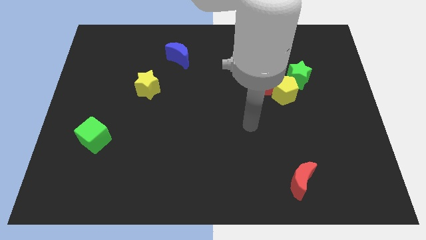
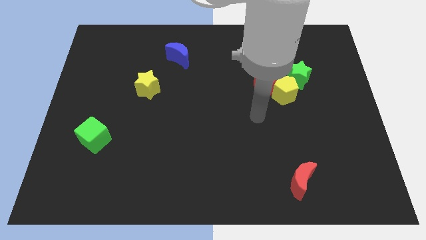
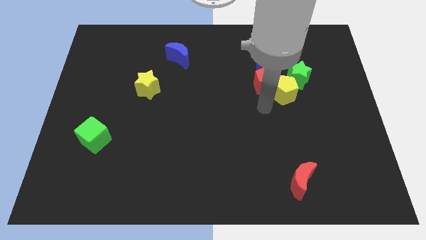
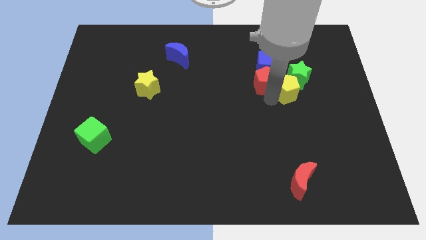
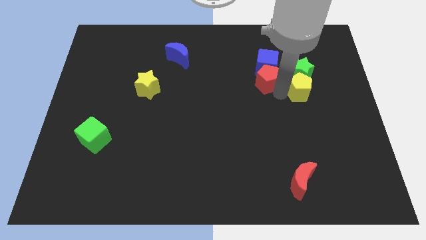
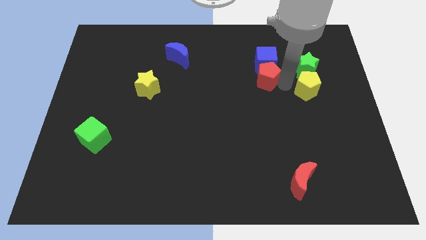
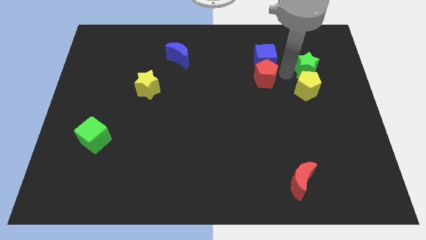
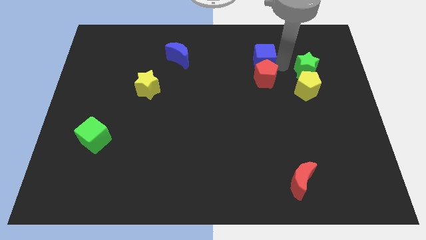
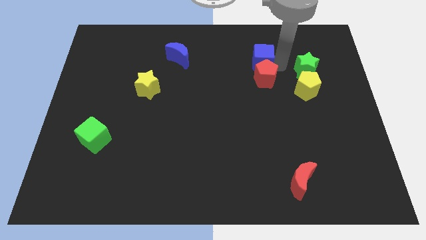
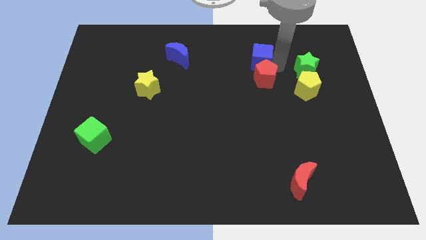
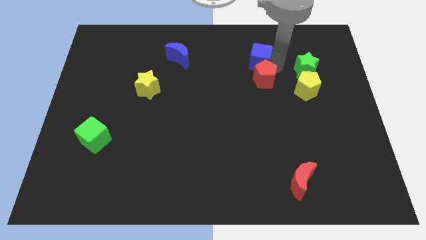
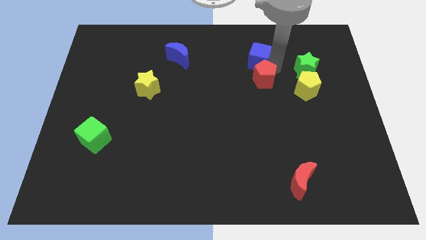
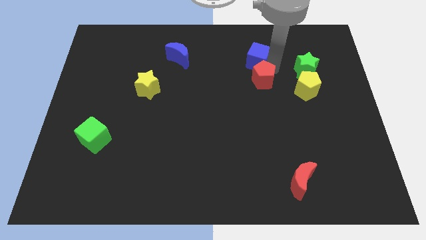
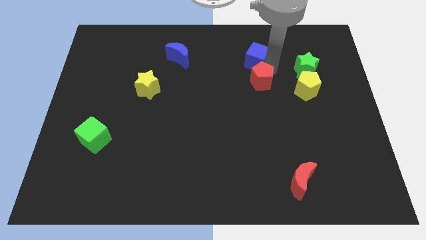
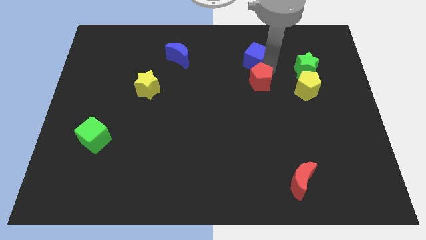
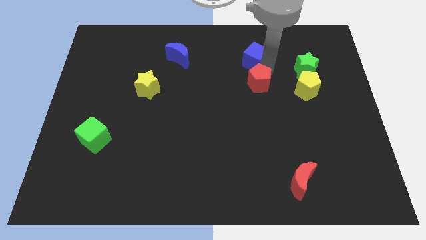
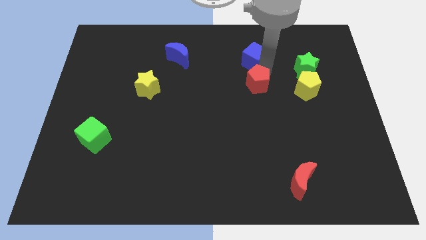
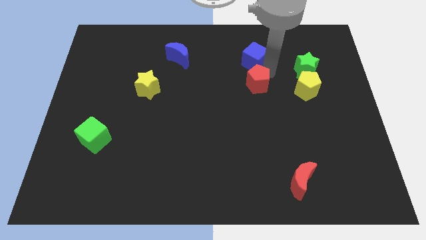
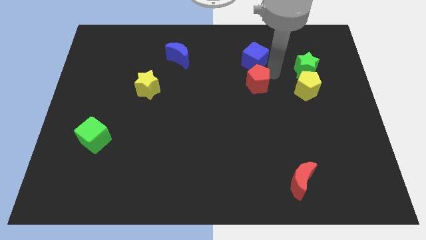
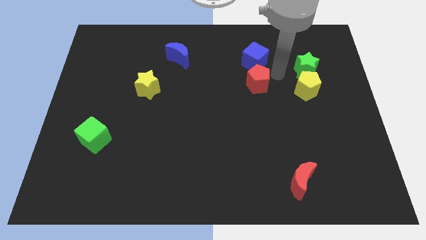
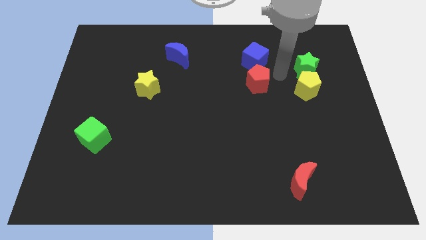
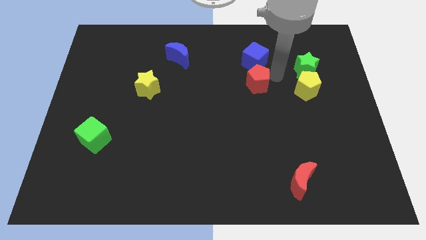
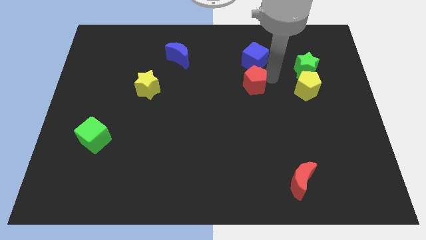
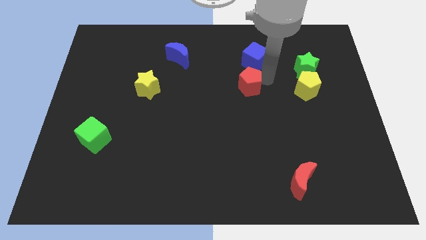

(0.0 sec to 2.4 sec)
separate the red pentagon from the yellow pentagon, blue cube, and green star

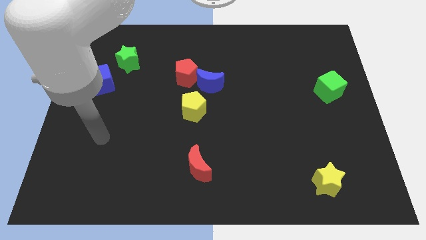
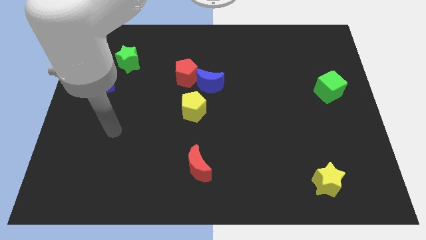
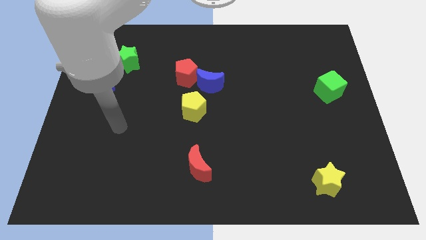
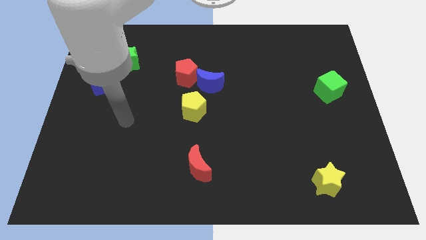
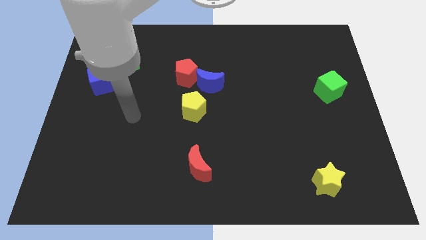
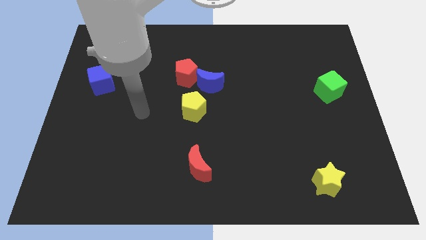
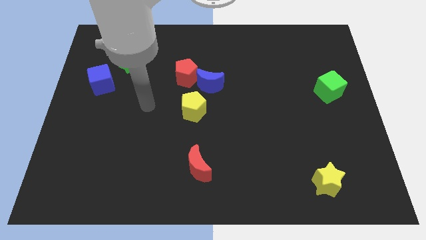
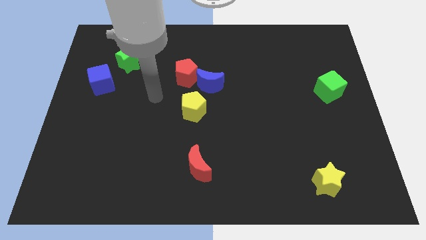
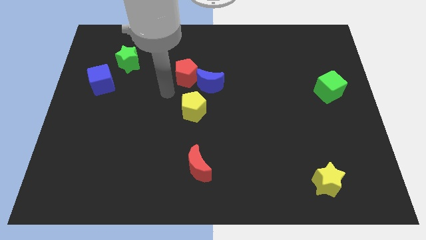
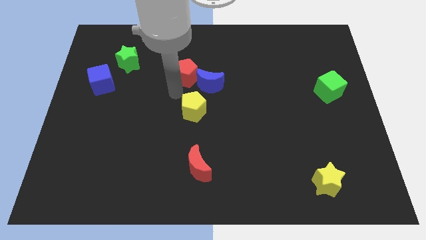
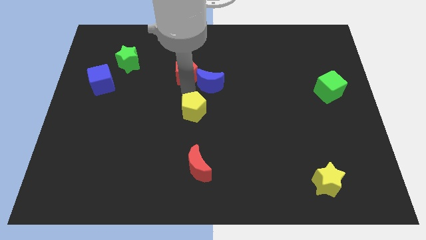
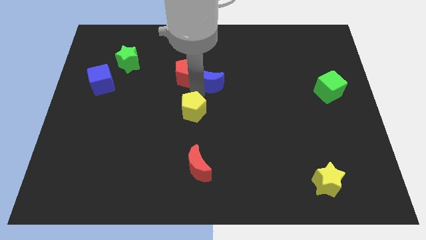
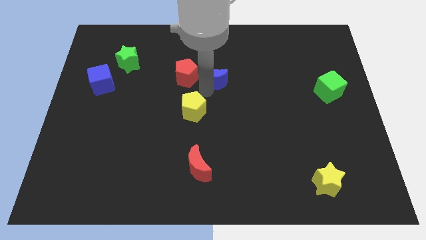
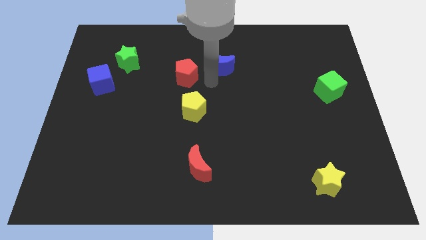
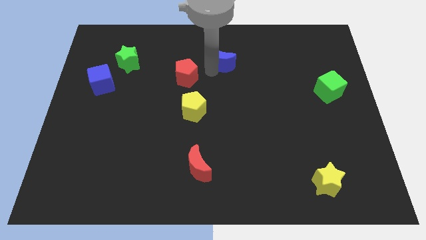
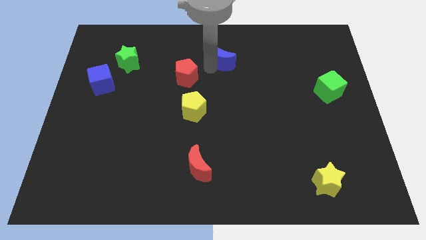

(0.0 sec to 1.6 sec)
move the red pentagon away from the blue moon

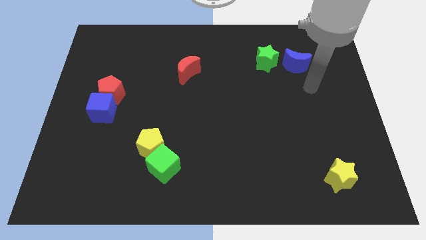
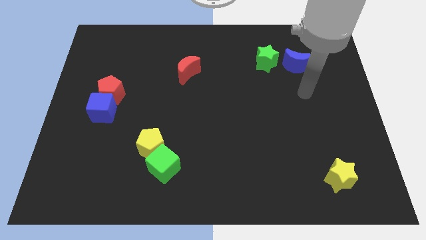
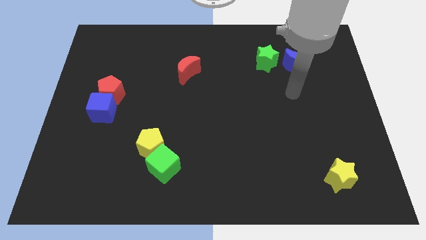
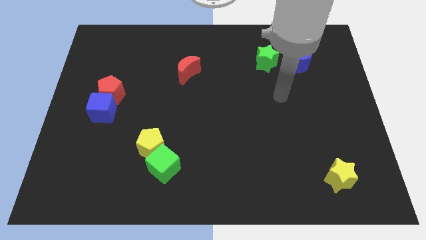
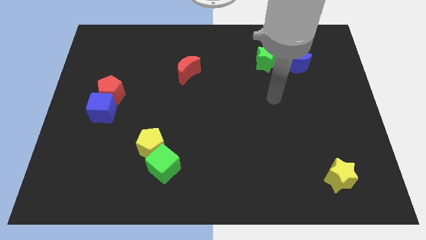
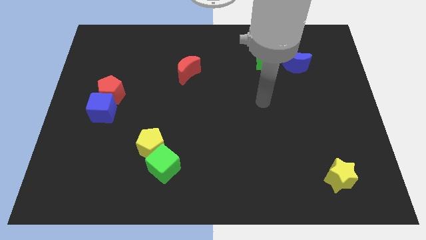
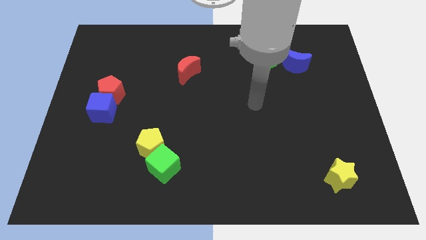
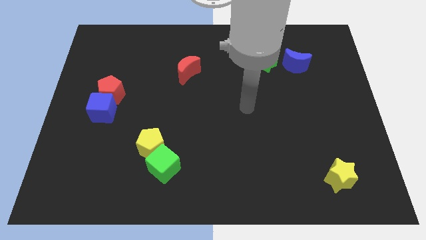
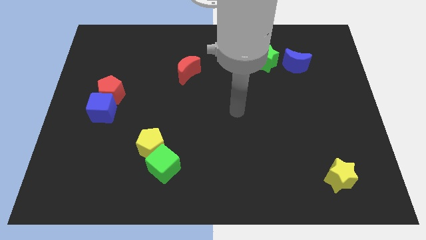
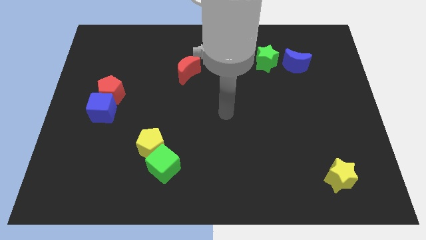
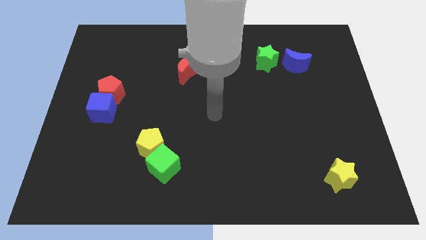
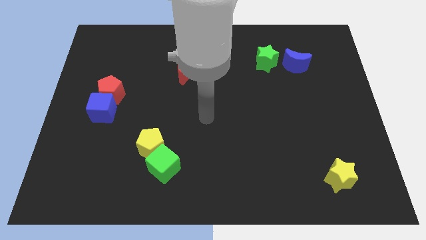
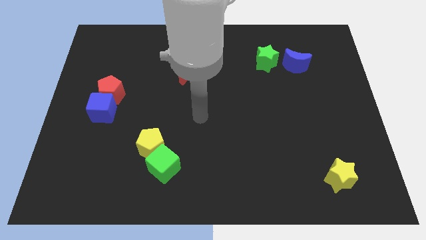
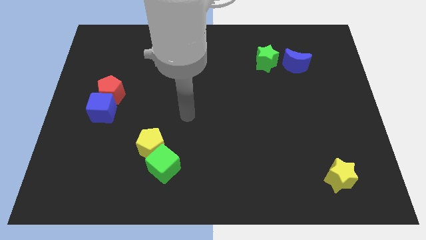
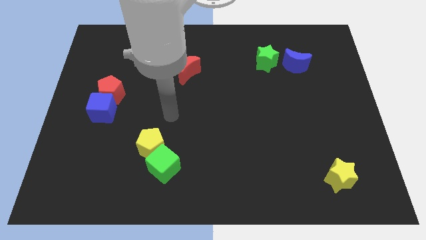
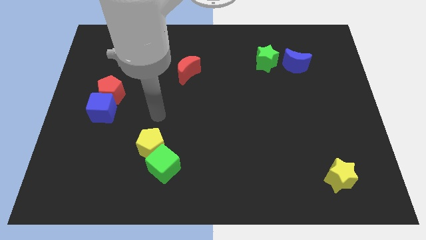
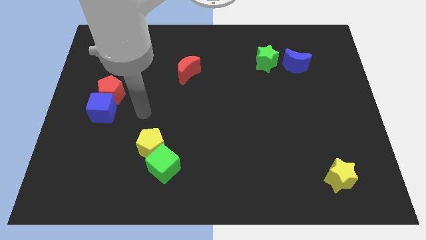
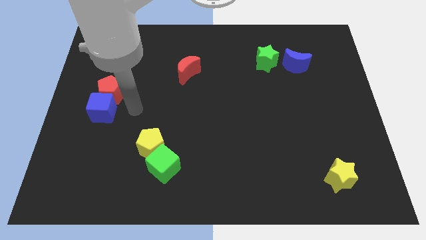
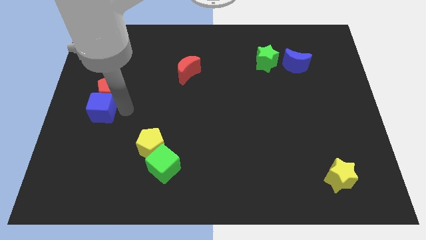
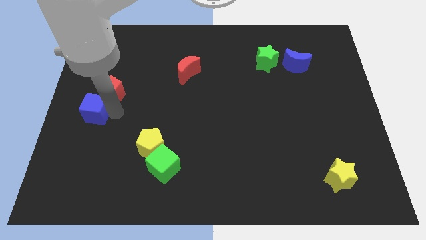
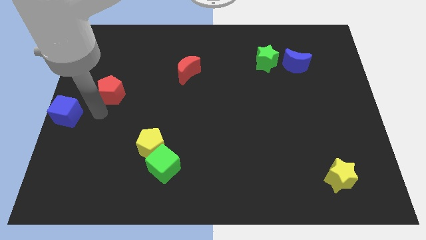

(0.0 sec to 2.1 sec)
separate the red pentagon from the blue cube

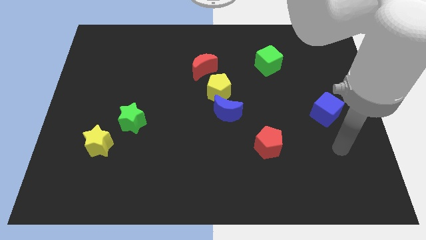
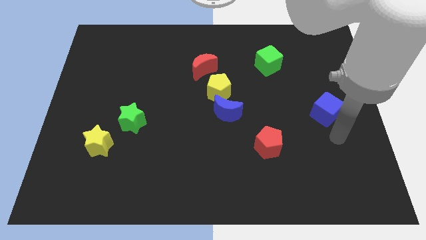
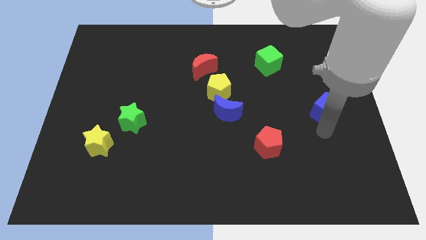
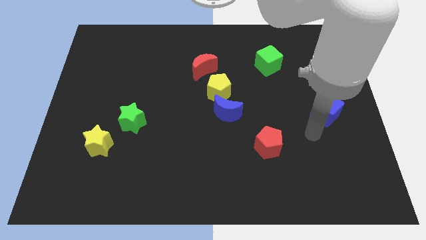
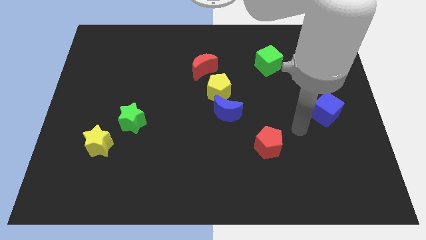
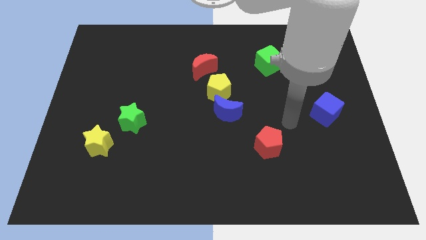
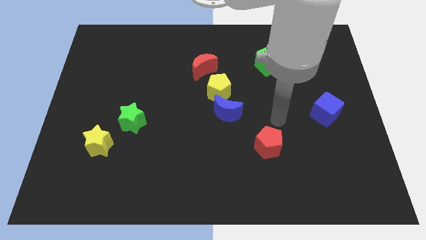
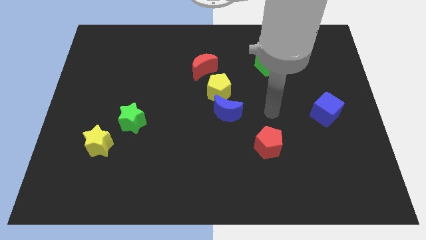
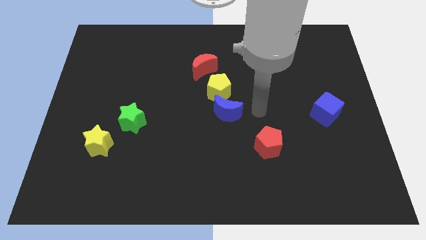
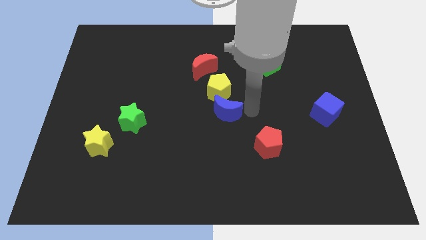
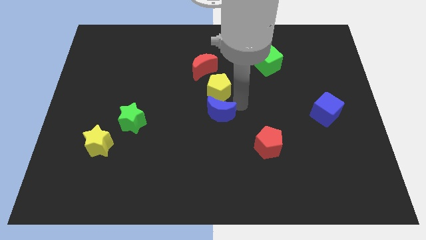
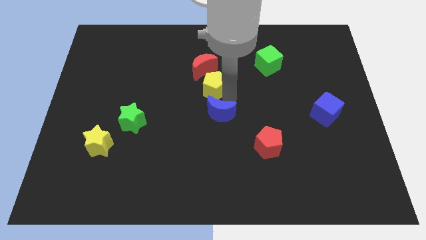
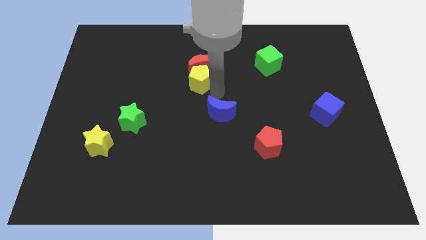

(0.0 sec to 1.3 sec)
pull the blue moon apart from the yellow pentagon

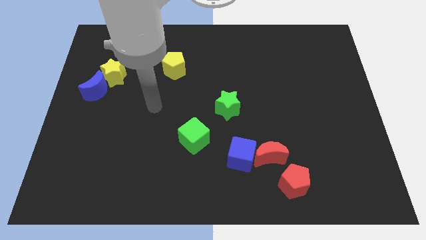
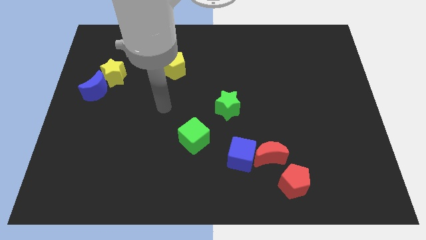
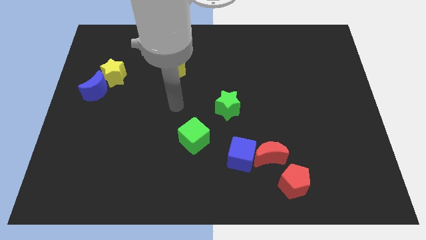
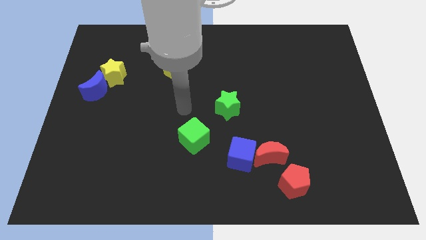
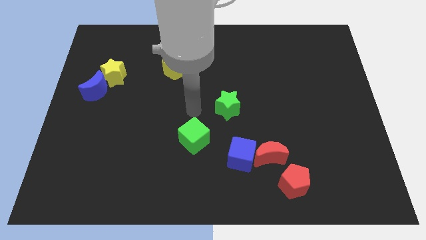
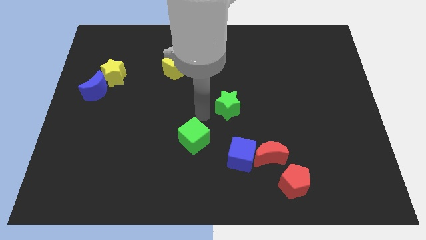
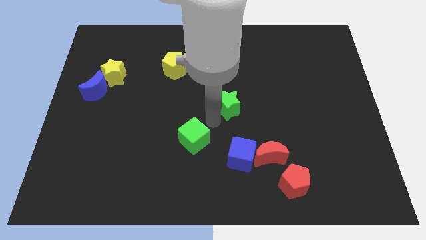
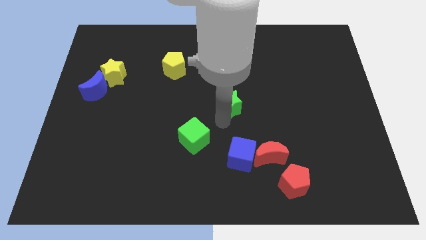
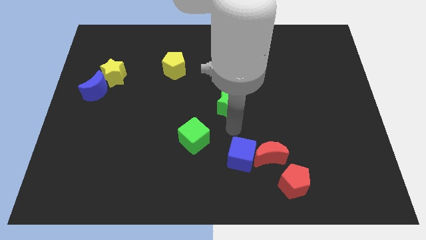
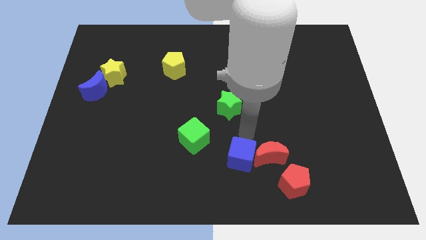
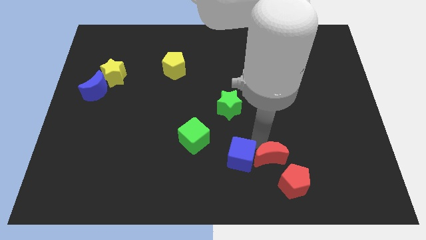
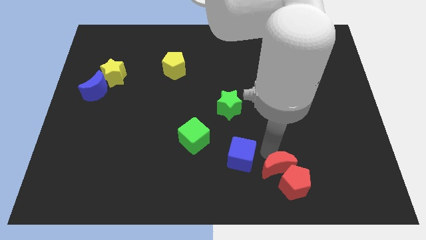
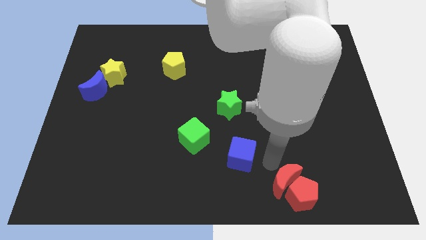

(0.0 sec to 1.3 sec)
separate the blue cube from the red moon

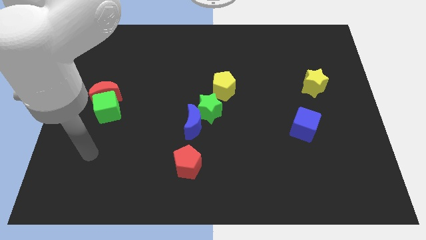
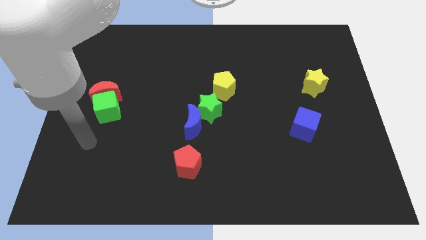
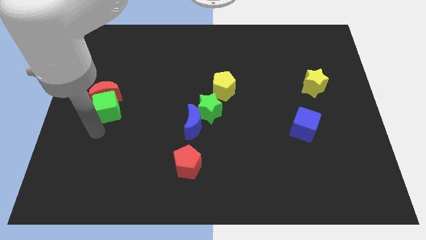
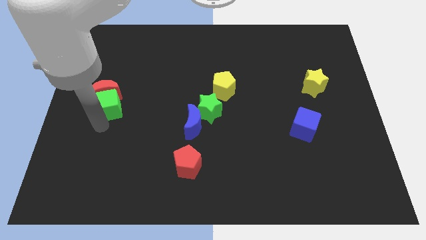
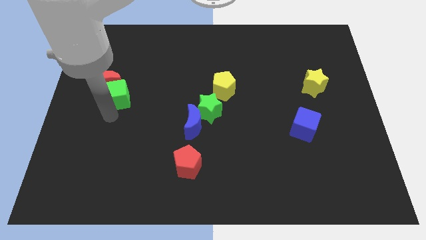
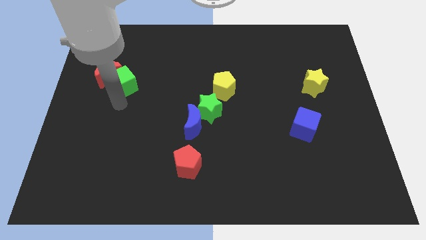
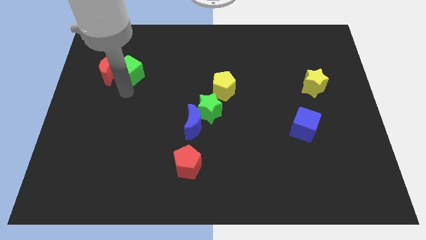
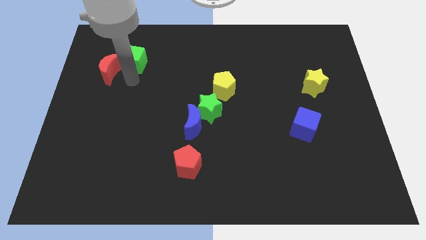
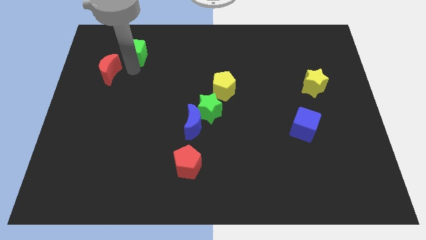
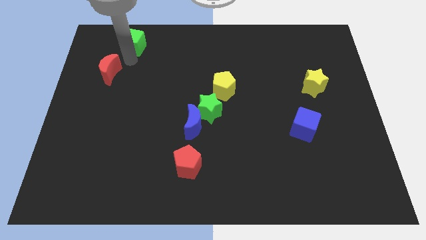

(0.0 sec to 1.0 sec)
move the red moon away from the green cube
